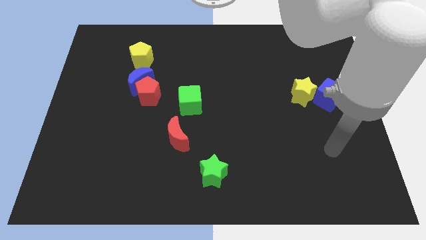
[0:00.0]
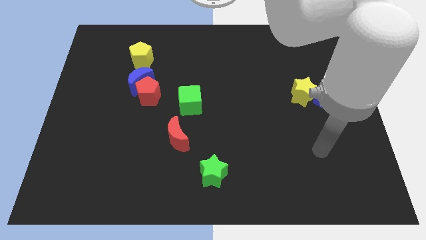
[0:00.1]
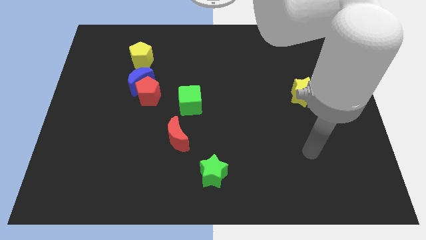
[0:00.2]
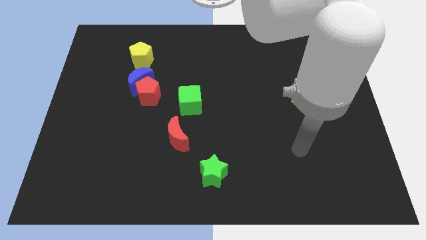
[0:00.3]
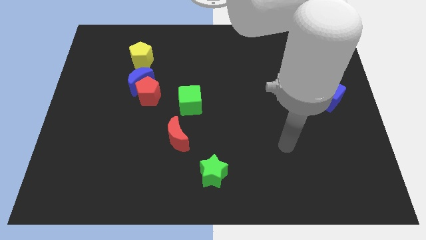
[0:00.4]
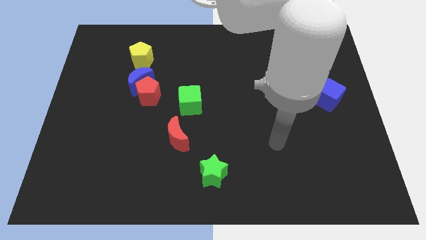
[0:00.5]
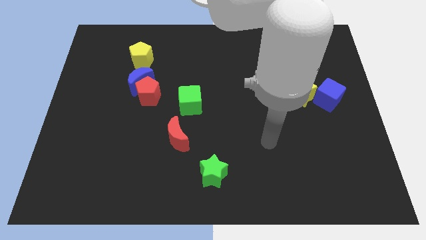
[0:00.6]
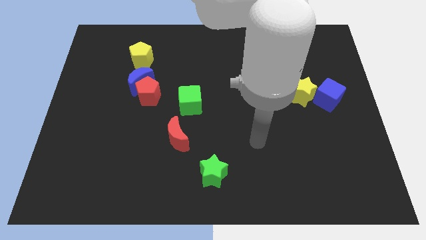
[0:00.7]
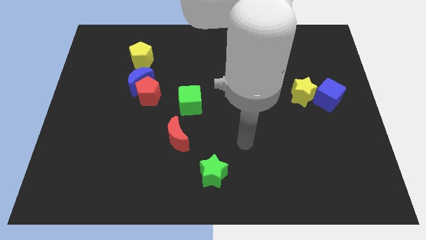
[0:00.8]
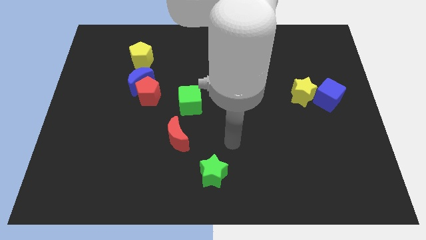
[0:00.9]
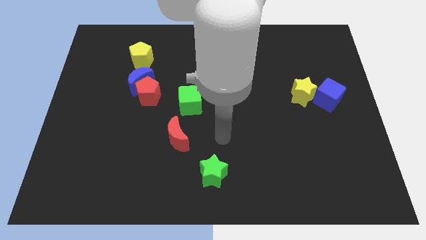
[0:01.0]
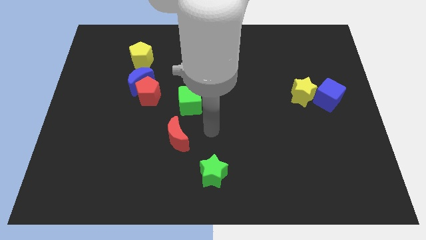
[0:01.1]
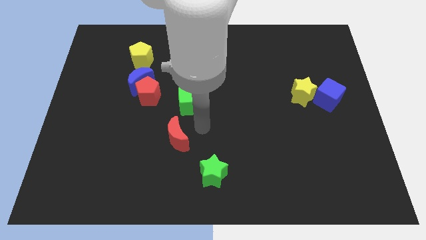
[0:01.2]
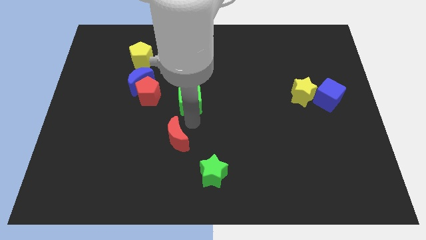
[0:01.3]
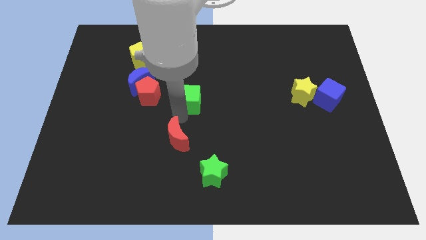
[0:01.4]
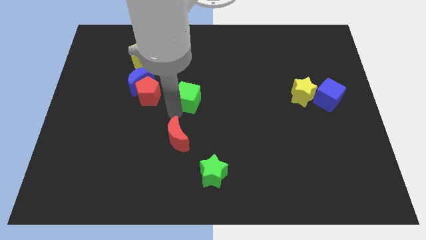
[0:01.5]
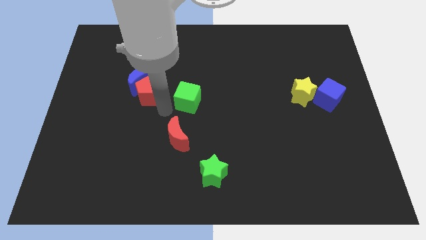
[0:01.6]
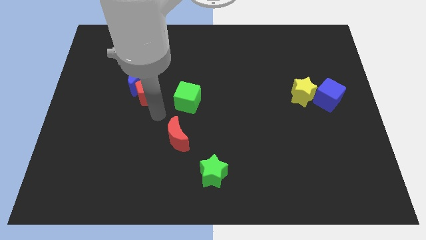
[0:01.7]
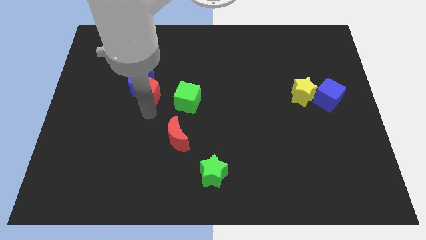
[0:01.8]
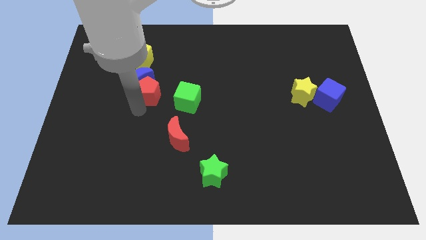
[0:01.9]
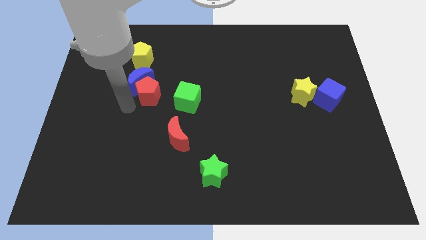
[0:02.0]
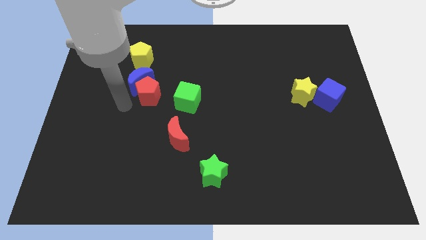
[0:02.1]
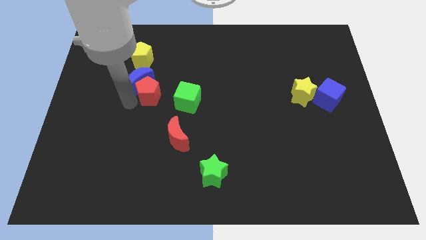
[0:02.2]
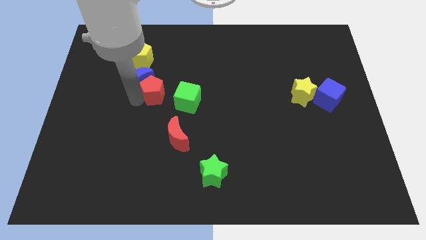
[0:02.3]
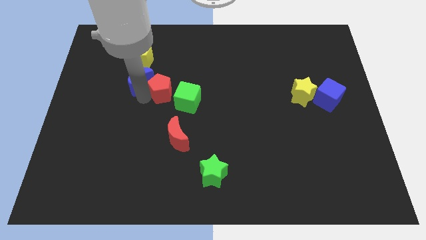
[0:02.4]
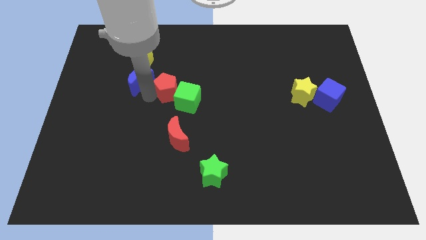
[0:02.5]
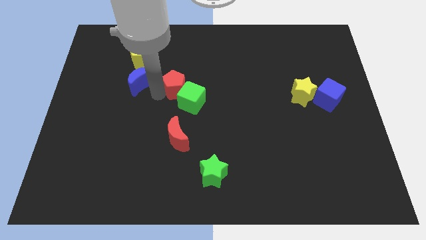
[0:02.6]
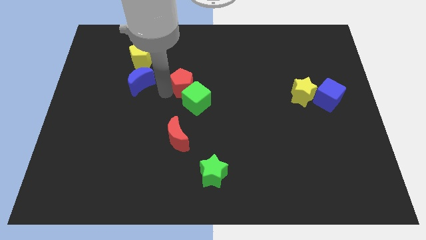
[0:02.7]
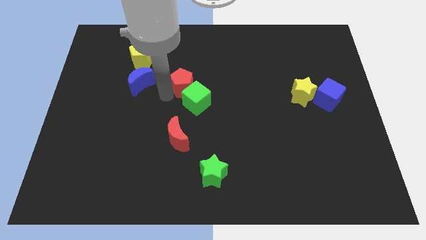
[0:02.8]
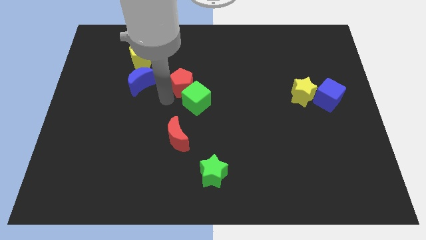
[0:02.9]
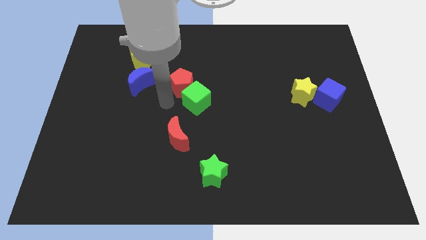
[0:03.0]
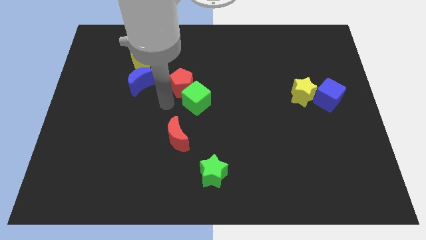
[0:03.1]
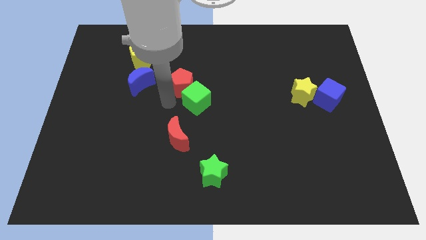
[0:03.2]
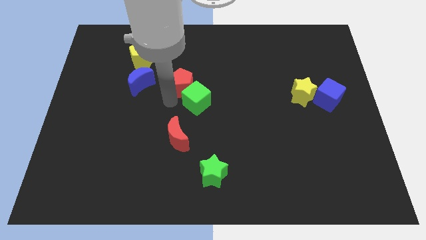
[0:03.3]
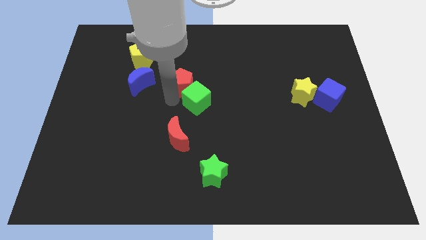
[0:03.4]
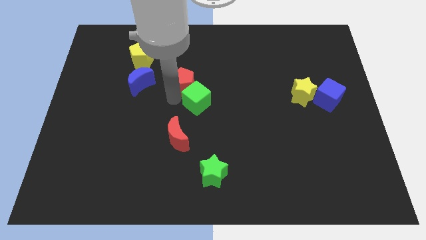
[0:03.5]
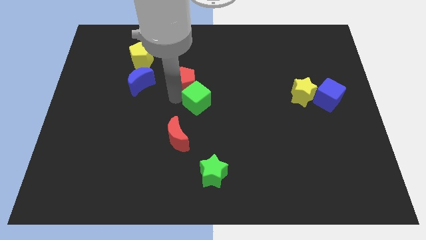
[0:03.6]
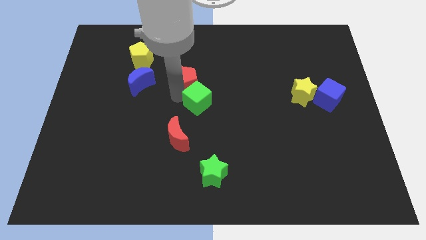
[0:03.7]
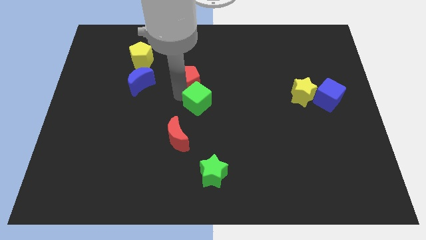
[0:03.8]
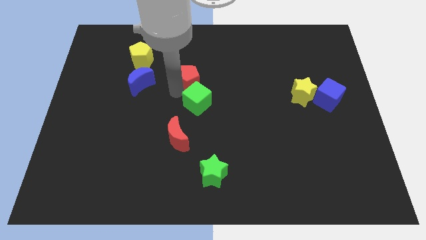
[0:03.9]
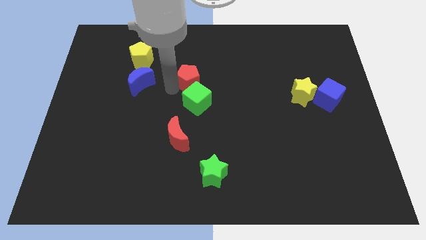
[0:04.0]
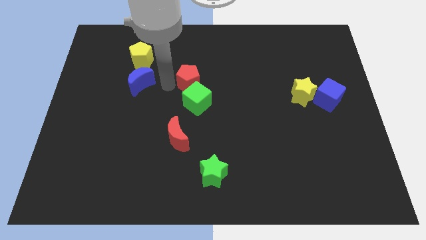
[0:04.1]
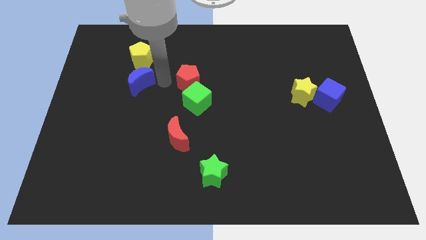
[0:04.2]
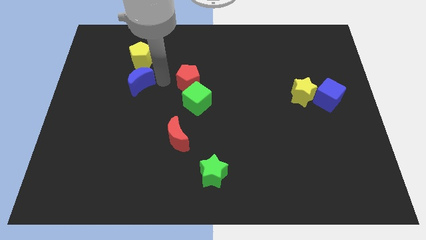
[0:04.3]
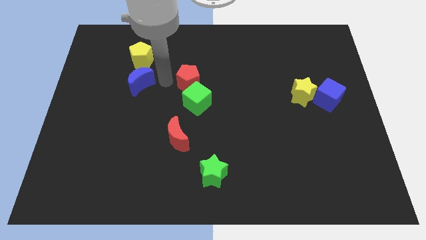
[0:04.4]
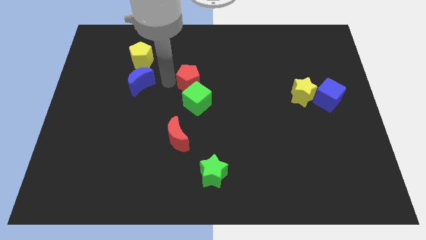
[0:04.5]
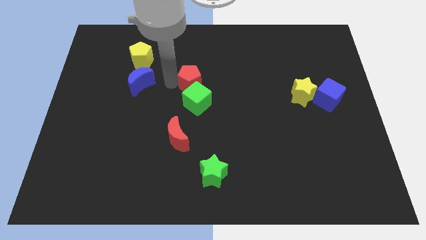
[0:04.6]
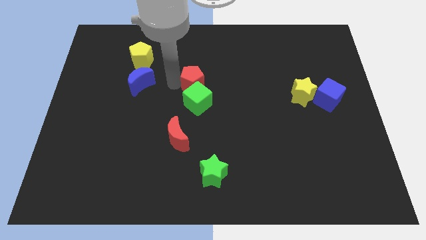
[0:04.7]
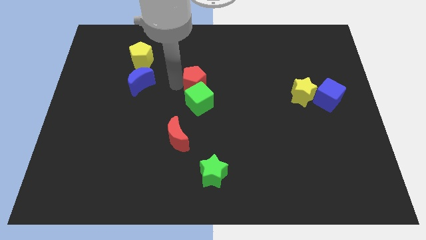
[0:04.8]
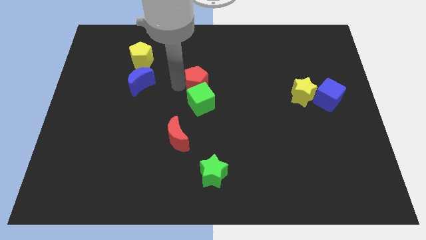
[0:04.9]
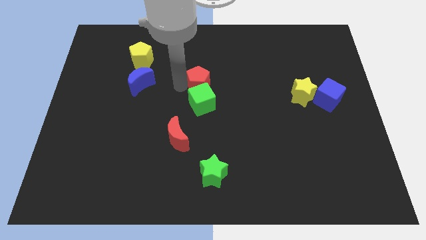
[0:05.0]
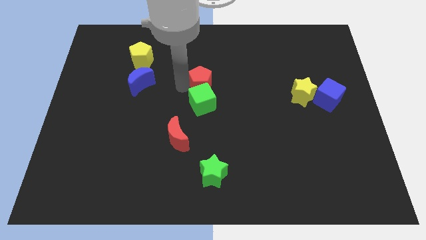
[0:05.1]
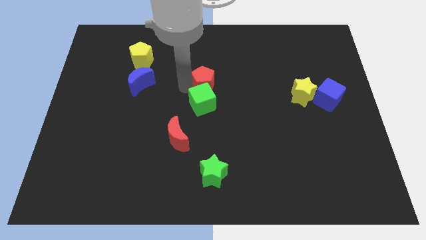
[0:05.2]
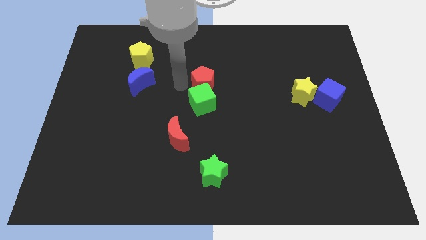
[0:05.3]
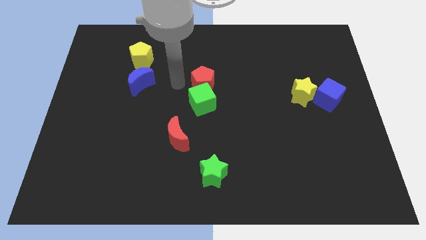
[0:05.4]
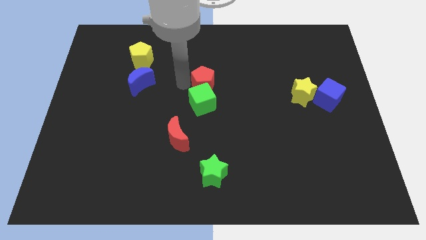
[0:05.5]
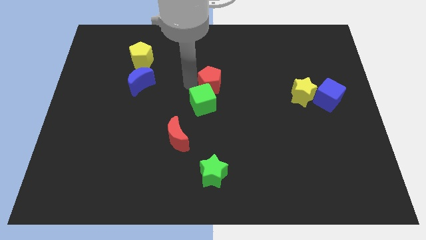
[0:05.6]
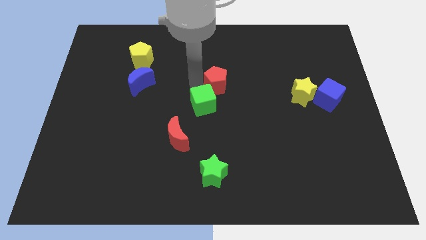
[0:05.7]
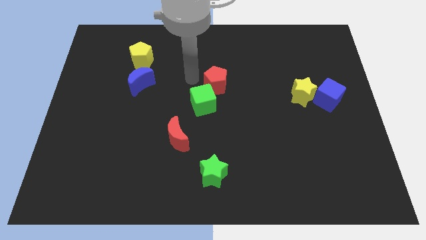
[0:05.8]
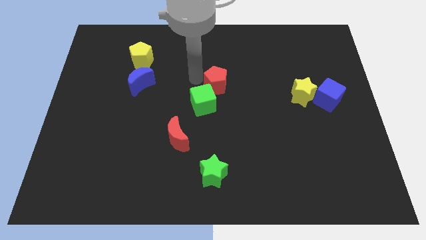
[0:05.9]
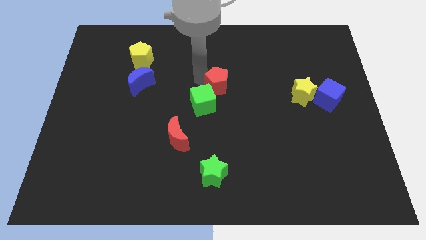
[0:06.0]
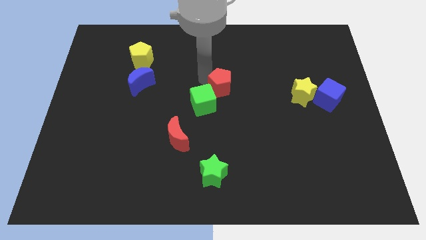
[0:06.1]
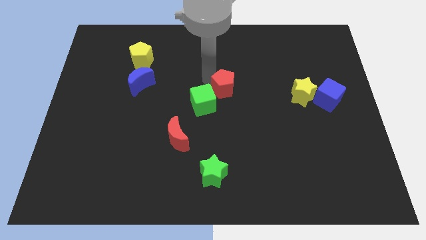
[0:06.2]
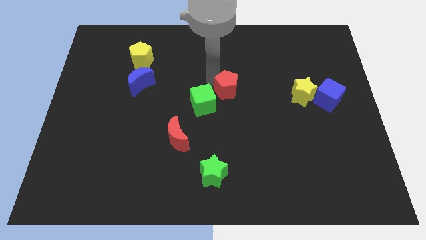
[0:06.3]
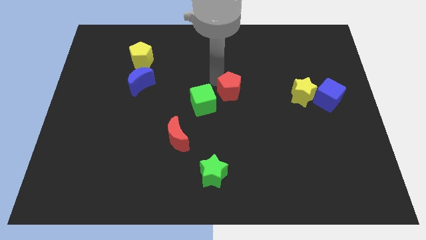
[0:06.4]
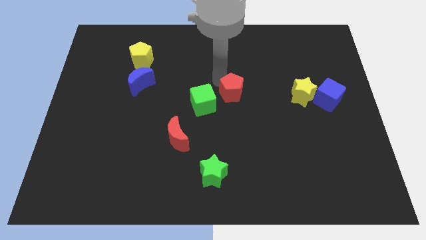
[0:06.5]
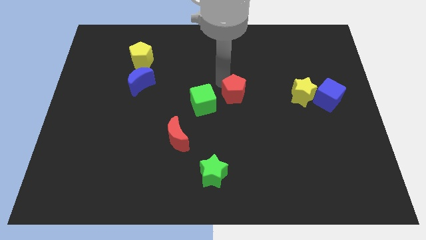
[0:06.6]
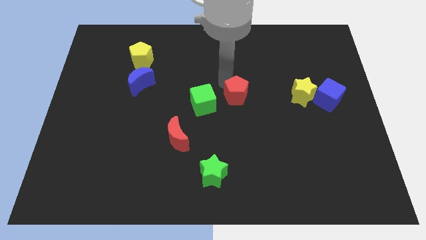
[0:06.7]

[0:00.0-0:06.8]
slide the red pentagon to the left of the yellow star

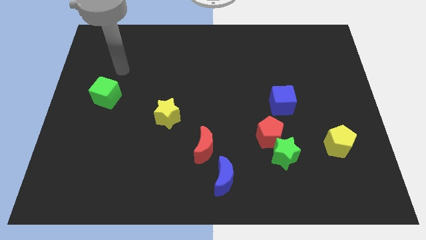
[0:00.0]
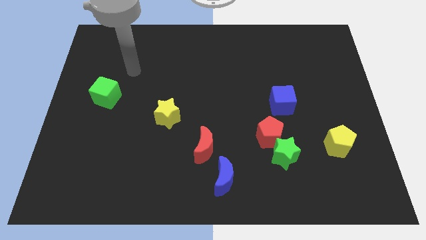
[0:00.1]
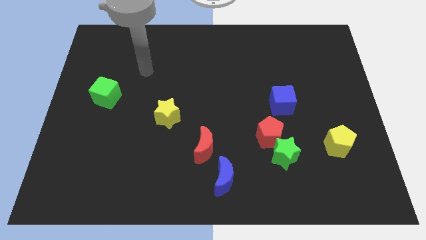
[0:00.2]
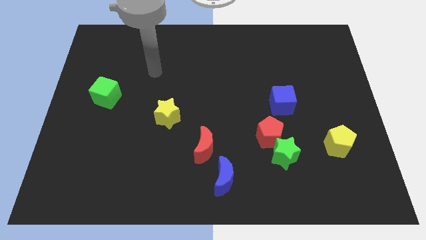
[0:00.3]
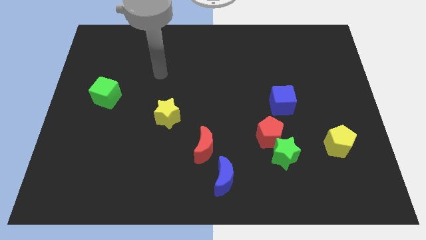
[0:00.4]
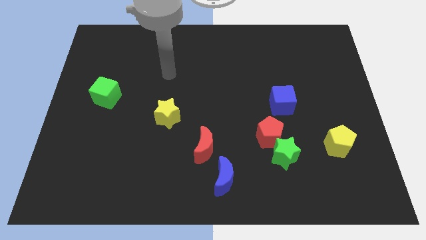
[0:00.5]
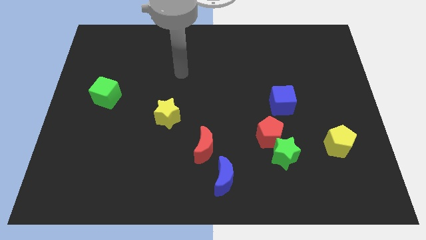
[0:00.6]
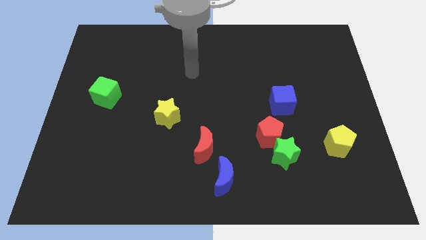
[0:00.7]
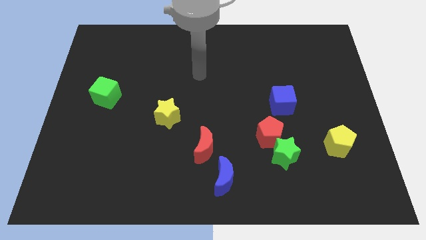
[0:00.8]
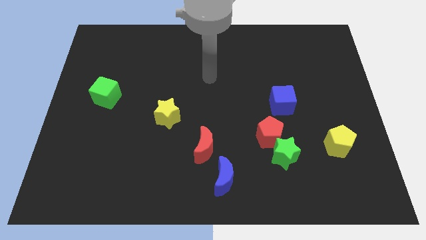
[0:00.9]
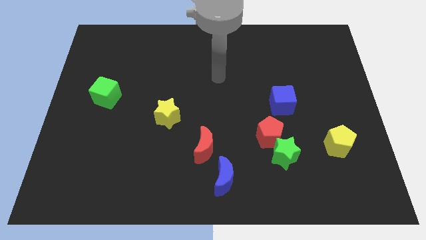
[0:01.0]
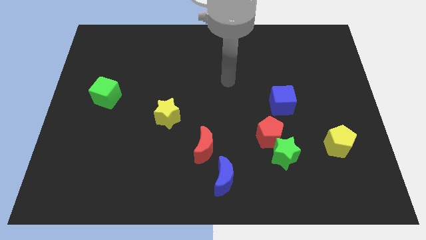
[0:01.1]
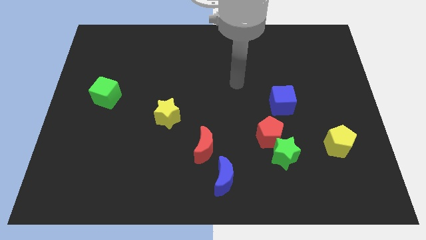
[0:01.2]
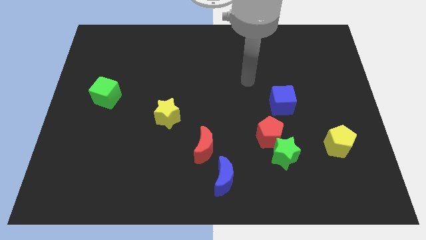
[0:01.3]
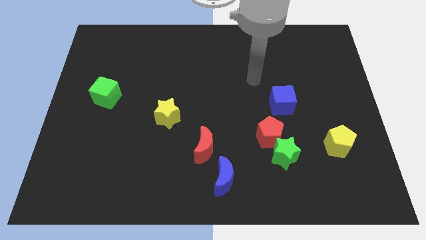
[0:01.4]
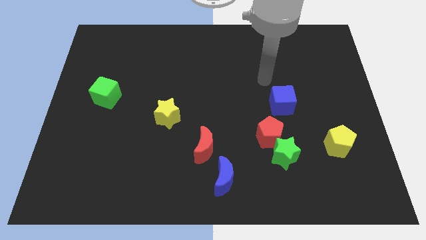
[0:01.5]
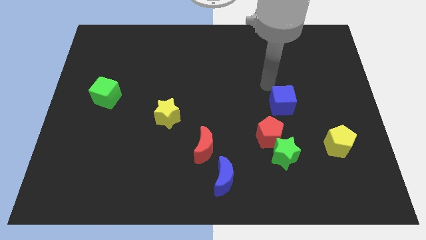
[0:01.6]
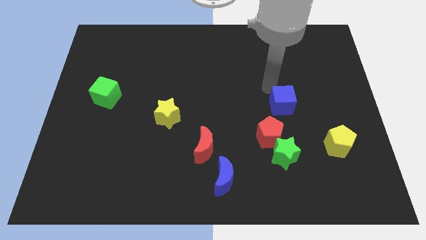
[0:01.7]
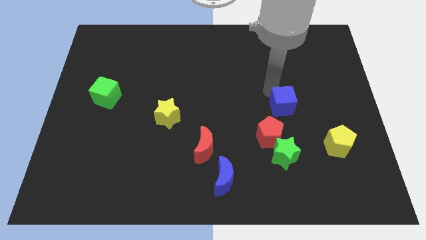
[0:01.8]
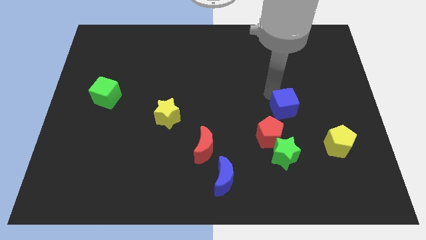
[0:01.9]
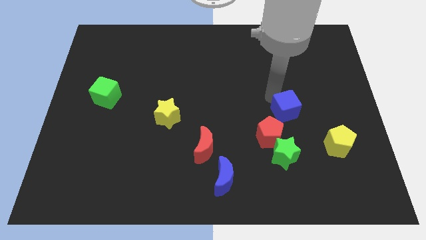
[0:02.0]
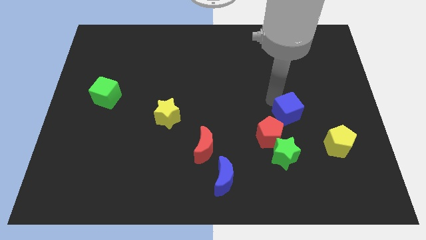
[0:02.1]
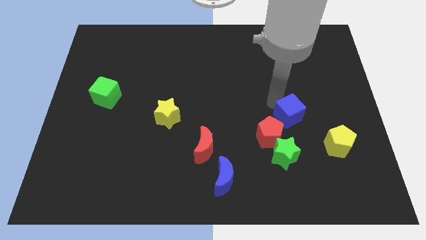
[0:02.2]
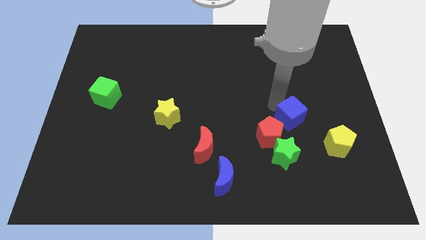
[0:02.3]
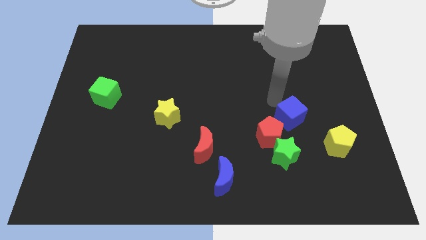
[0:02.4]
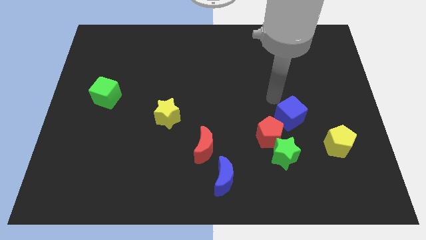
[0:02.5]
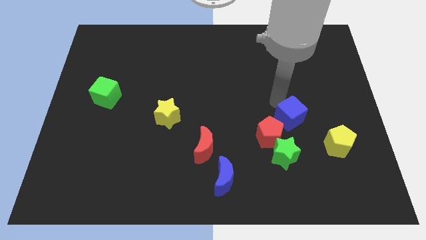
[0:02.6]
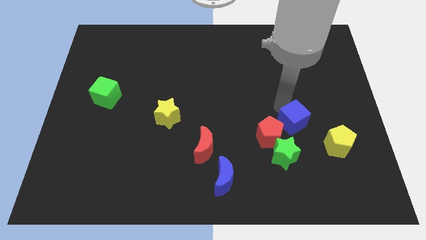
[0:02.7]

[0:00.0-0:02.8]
move the blue cube to the top right side of the green star
